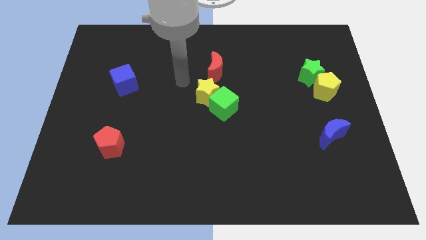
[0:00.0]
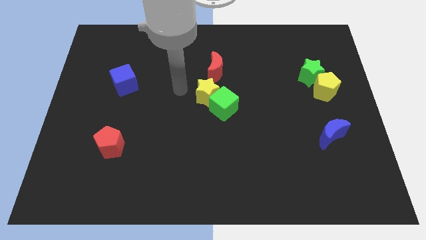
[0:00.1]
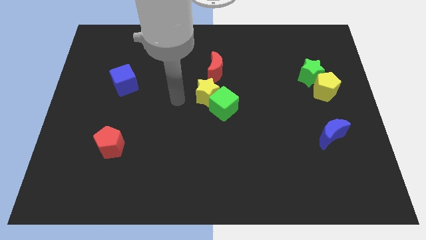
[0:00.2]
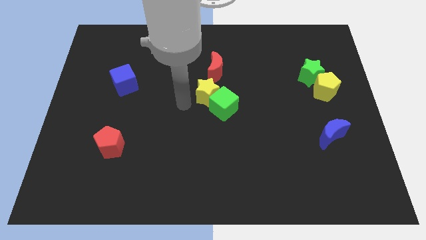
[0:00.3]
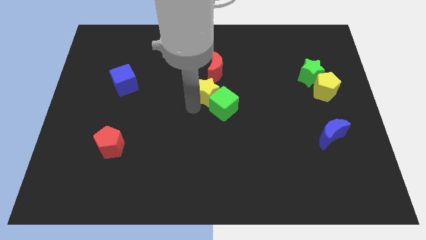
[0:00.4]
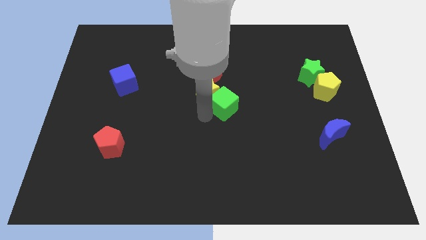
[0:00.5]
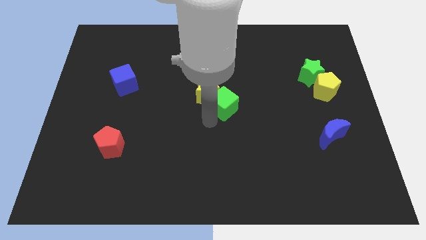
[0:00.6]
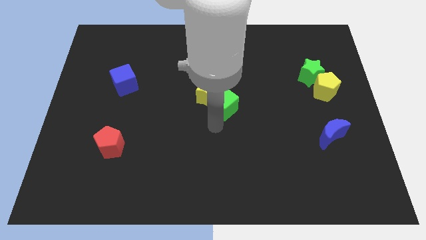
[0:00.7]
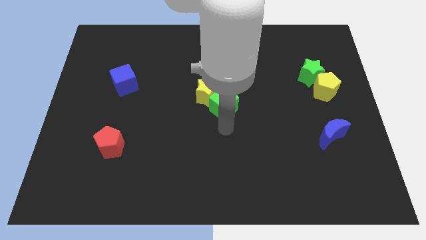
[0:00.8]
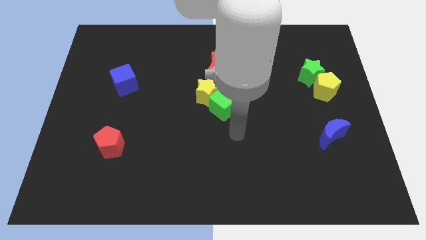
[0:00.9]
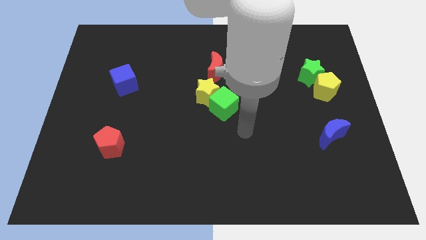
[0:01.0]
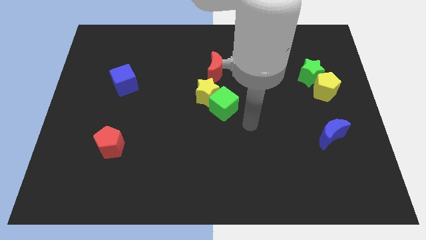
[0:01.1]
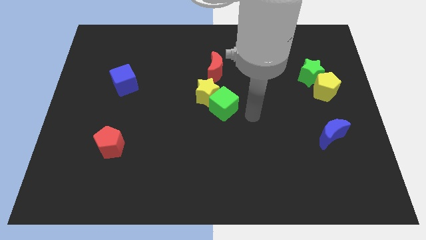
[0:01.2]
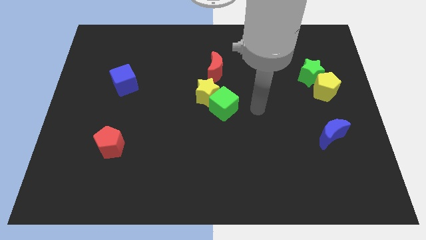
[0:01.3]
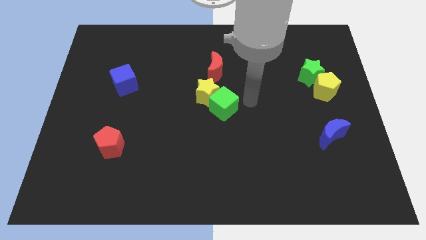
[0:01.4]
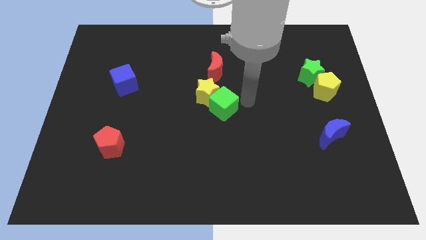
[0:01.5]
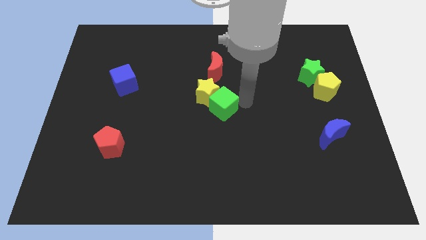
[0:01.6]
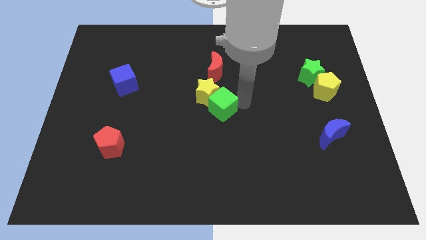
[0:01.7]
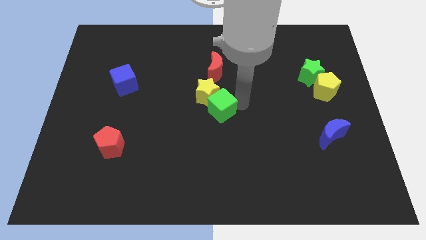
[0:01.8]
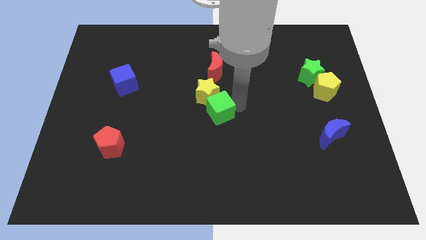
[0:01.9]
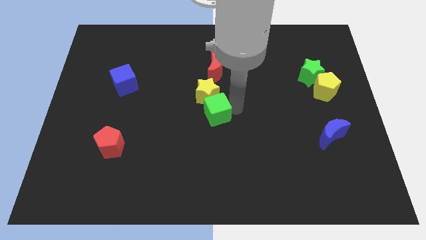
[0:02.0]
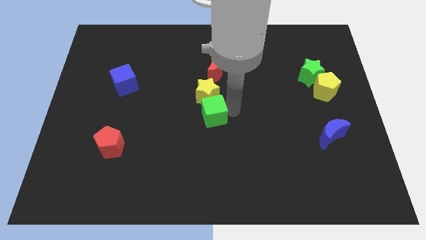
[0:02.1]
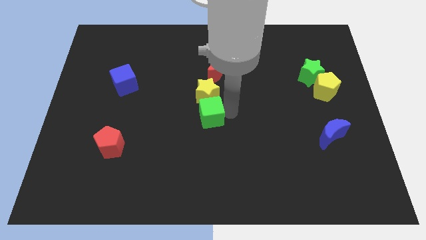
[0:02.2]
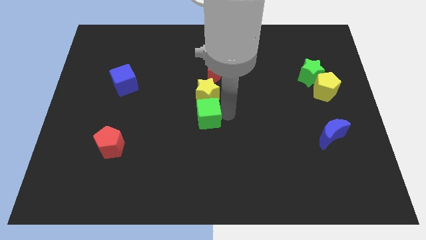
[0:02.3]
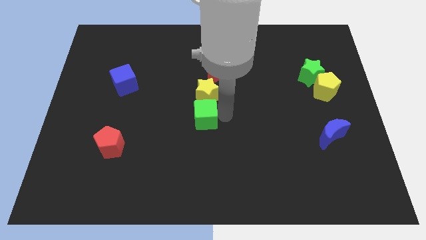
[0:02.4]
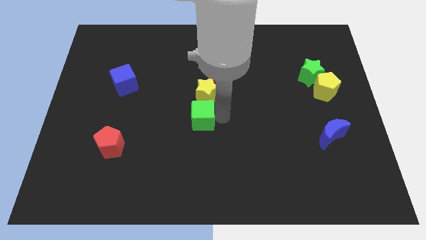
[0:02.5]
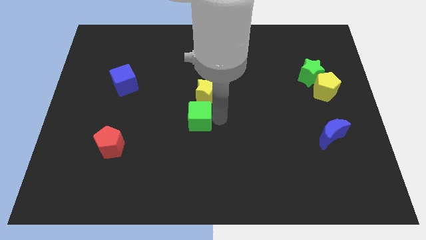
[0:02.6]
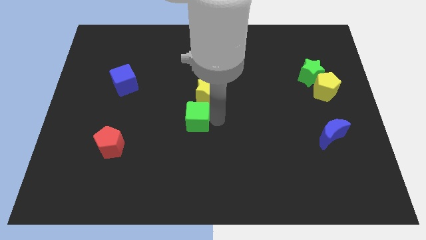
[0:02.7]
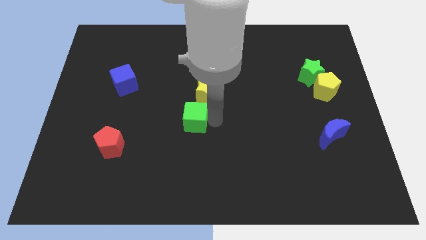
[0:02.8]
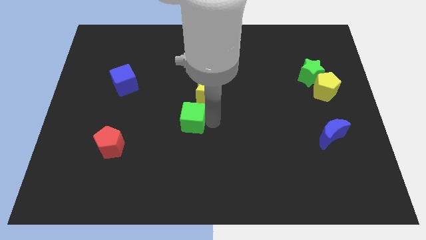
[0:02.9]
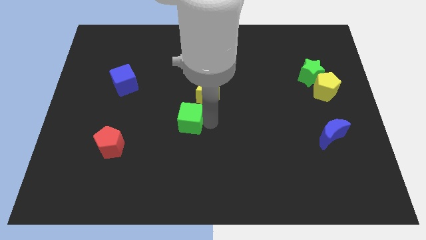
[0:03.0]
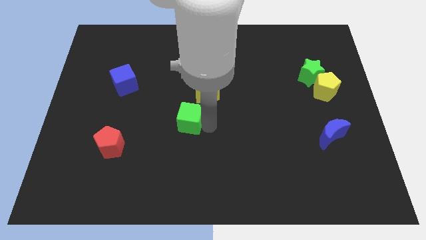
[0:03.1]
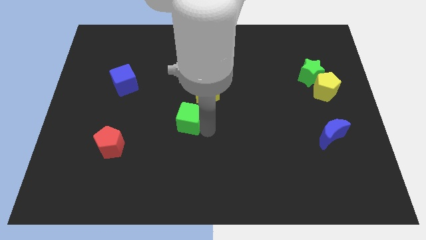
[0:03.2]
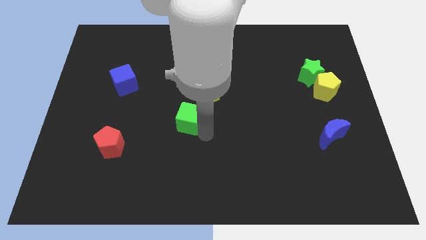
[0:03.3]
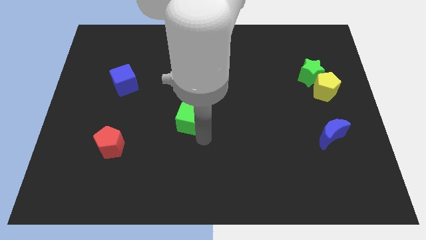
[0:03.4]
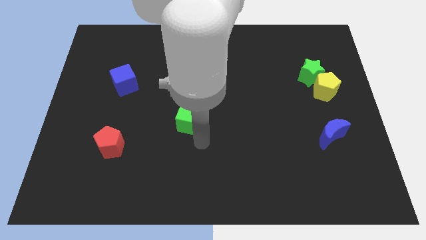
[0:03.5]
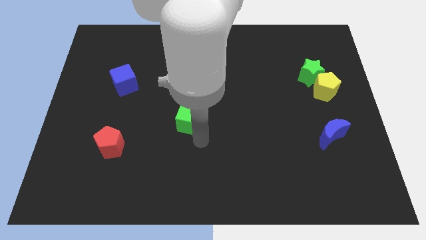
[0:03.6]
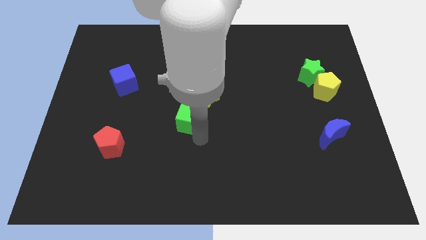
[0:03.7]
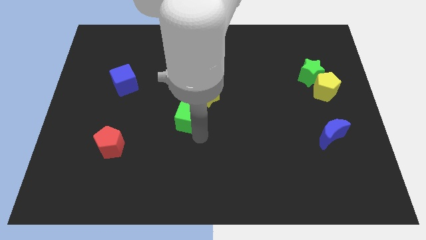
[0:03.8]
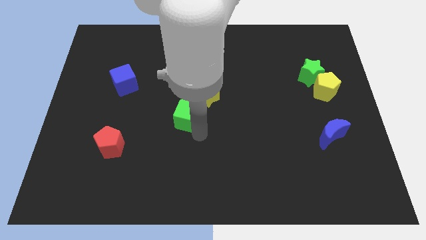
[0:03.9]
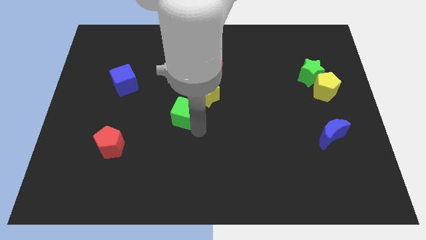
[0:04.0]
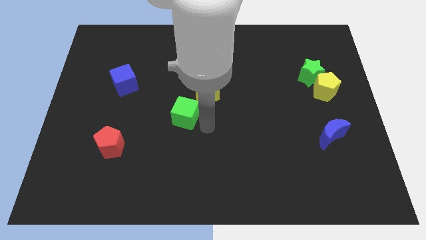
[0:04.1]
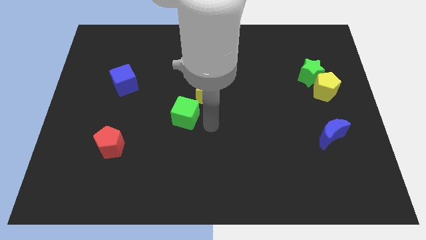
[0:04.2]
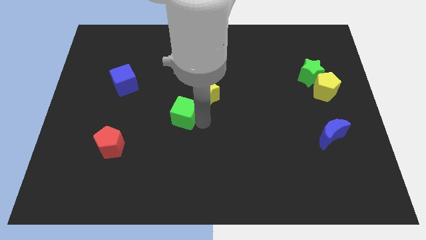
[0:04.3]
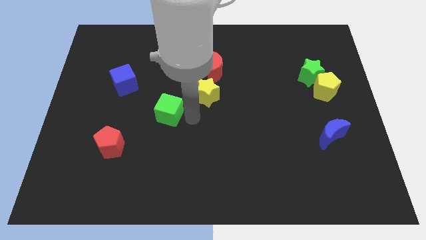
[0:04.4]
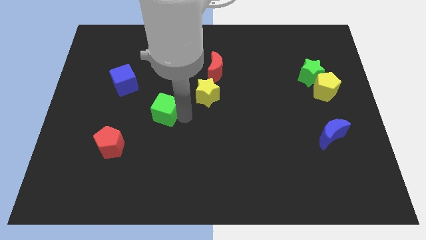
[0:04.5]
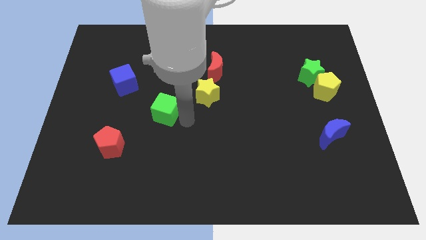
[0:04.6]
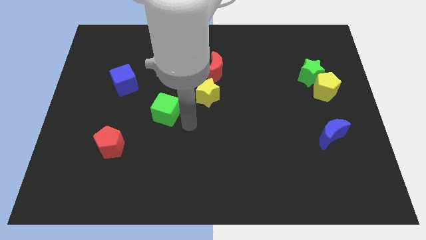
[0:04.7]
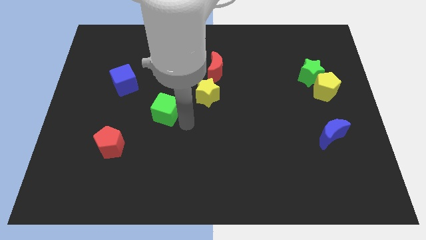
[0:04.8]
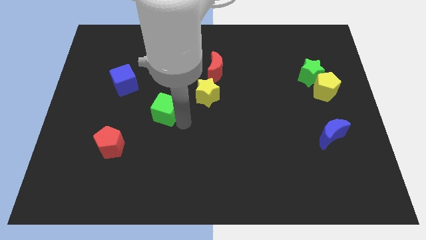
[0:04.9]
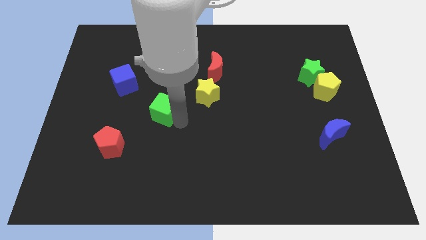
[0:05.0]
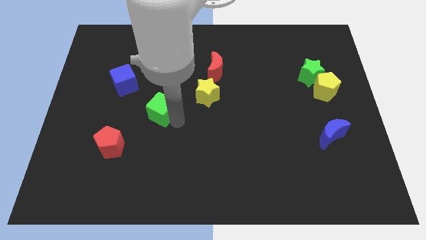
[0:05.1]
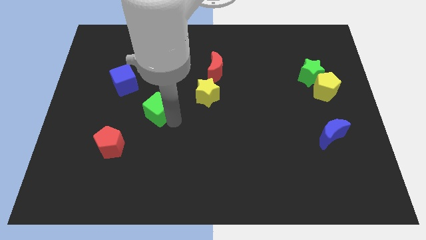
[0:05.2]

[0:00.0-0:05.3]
put the green cube to the bottom right side of the blue cube

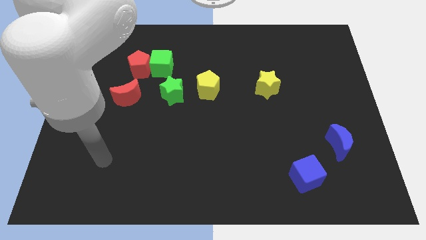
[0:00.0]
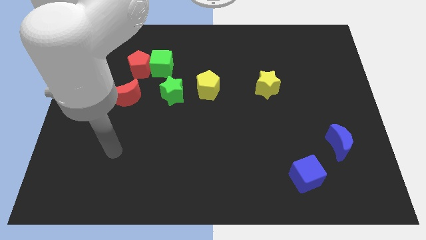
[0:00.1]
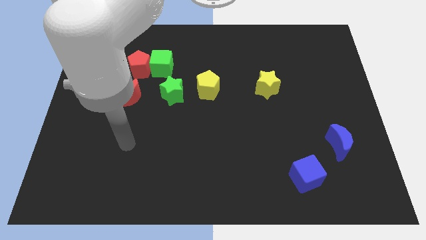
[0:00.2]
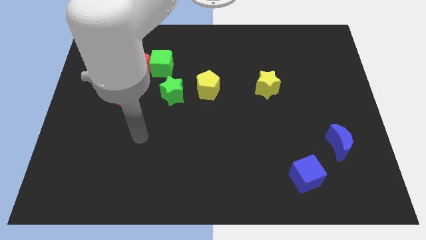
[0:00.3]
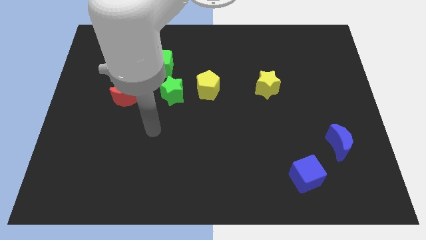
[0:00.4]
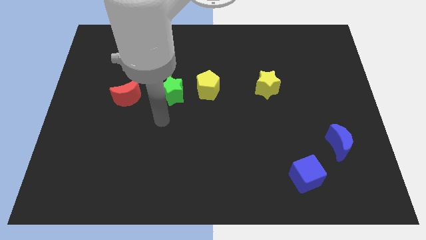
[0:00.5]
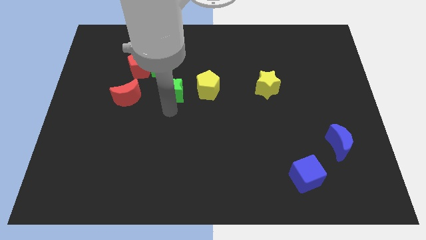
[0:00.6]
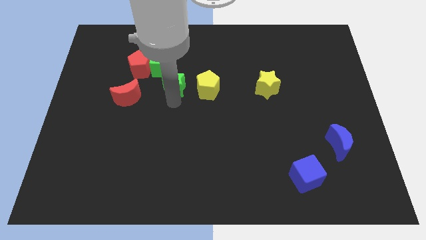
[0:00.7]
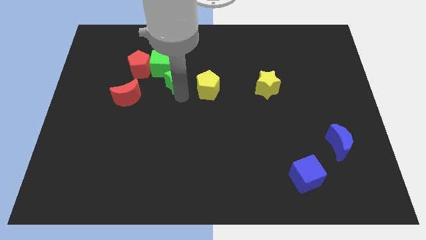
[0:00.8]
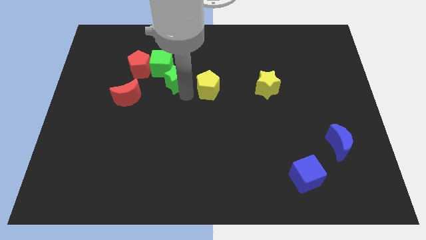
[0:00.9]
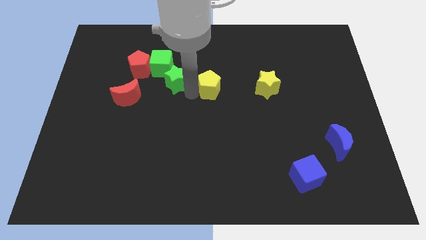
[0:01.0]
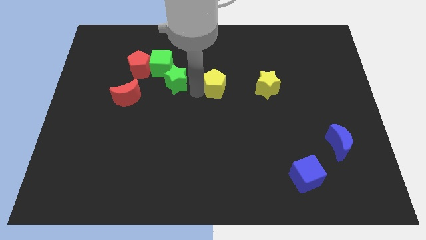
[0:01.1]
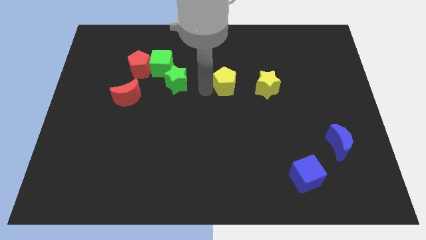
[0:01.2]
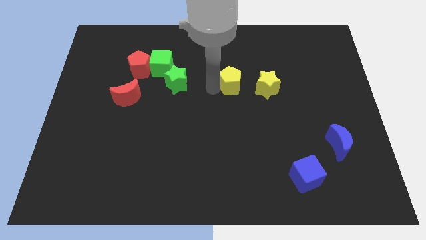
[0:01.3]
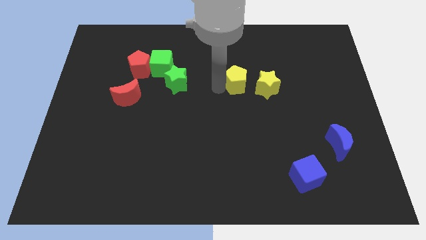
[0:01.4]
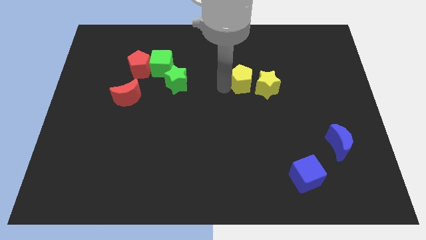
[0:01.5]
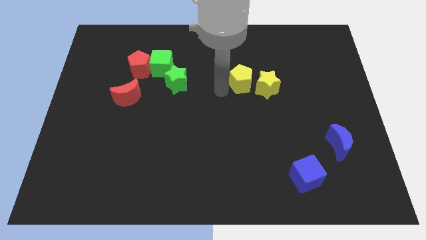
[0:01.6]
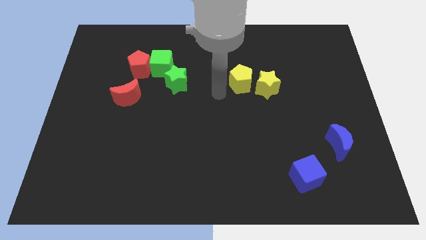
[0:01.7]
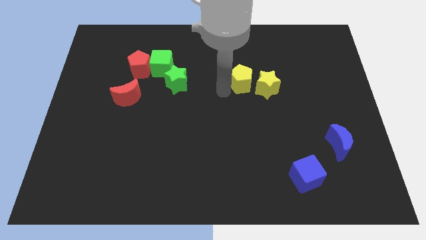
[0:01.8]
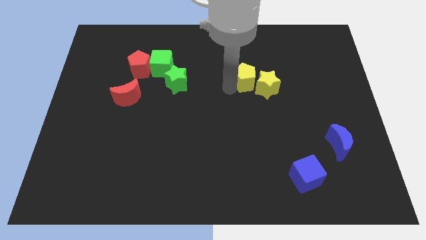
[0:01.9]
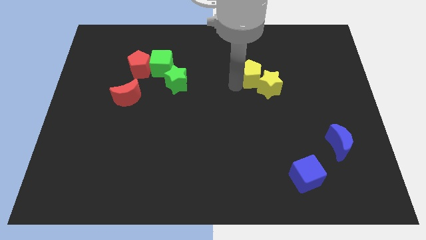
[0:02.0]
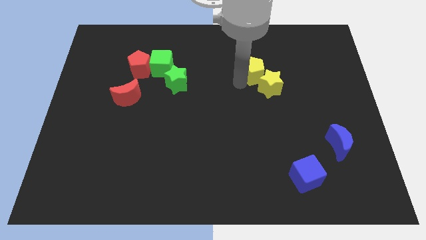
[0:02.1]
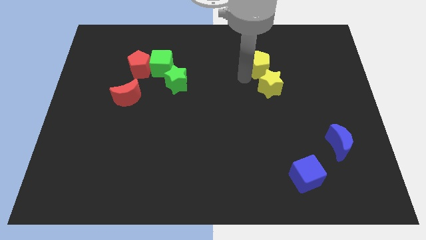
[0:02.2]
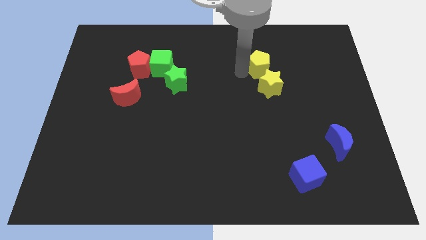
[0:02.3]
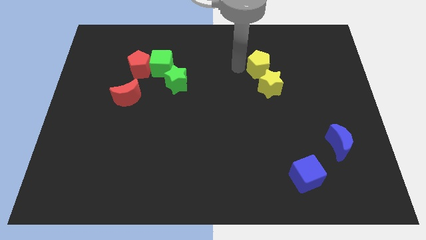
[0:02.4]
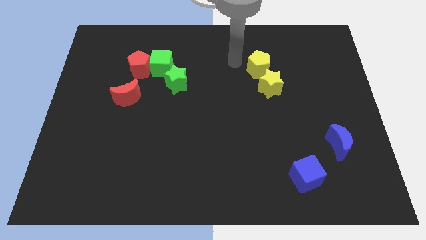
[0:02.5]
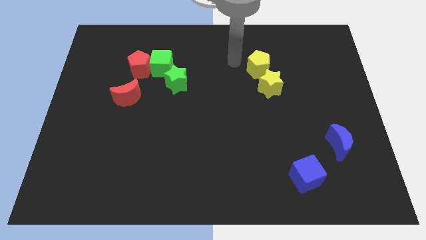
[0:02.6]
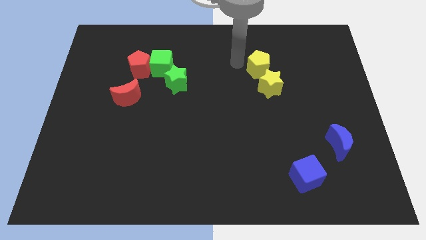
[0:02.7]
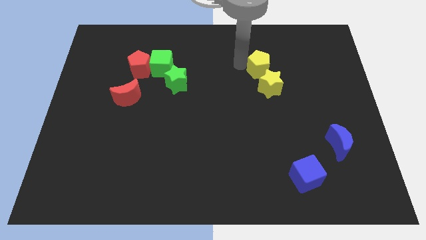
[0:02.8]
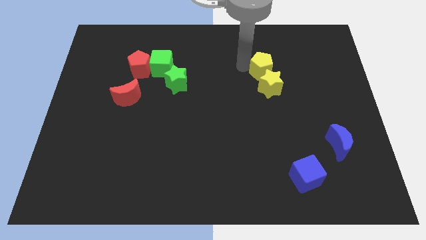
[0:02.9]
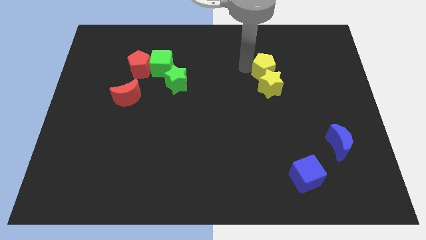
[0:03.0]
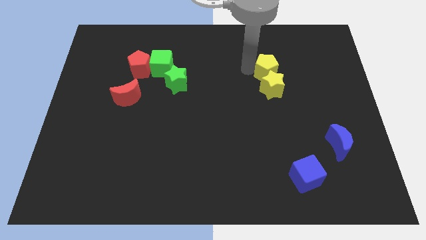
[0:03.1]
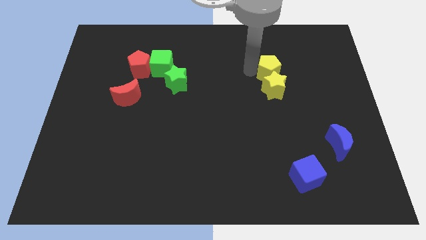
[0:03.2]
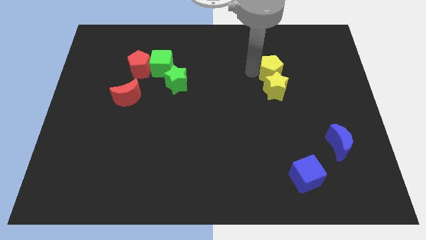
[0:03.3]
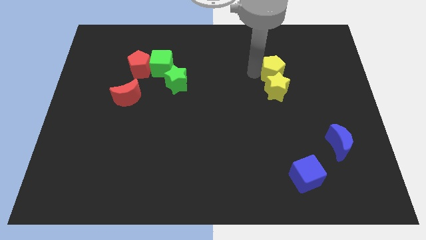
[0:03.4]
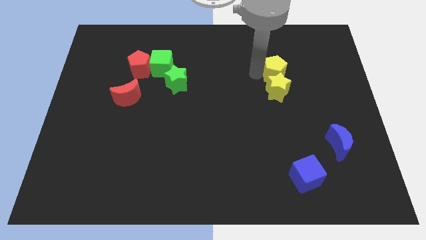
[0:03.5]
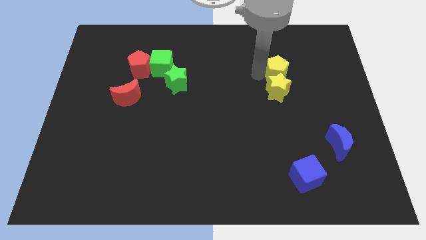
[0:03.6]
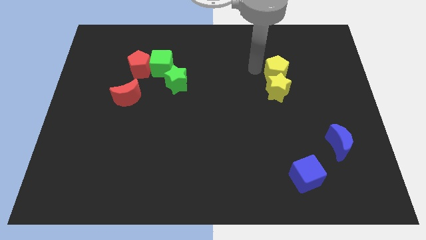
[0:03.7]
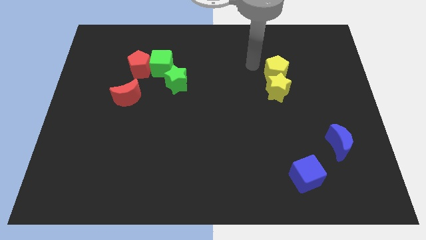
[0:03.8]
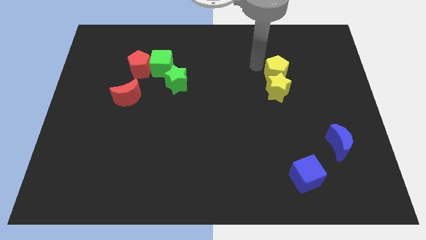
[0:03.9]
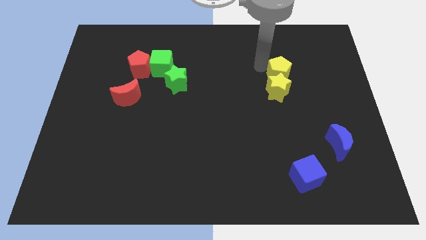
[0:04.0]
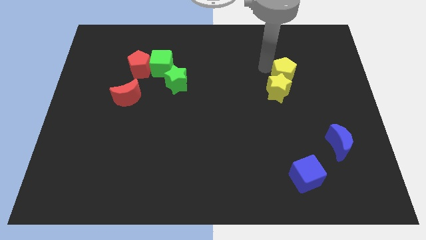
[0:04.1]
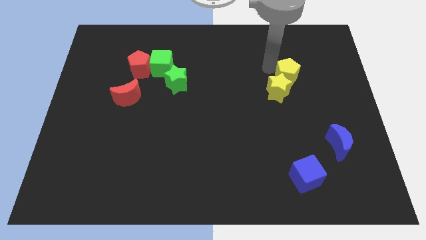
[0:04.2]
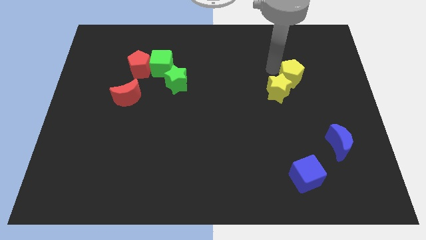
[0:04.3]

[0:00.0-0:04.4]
push the yellow pentagon right of the yellow star
